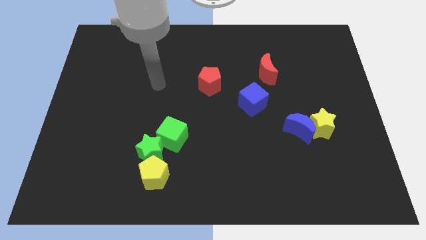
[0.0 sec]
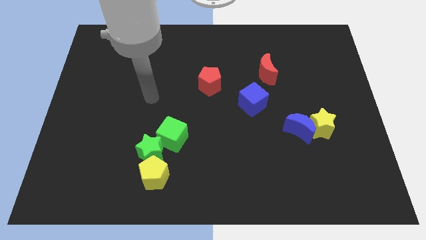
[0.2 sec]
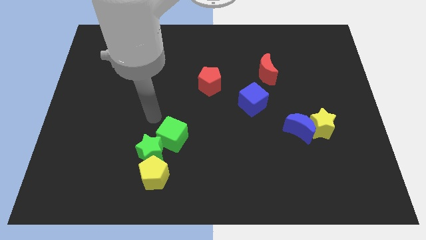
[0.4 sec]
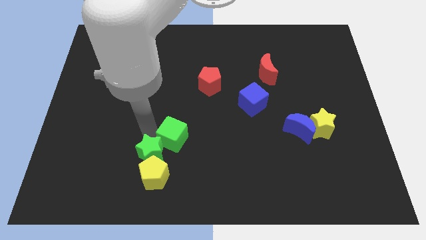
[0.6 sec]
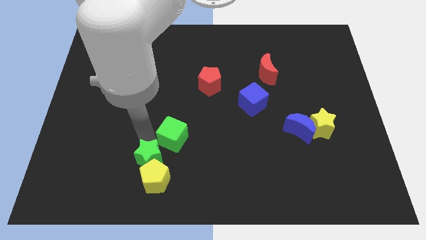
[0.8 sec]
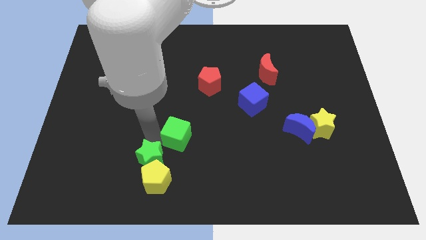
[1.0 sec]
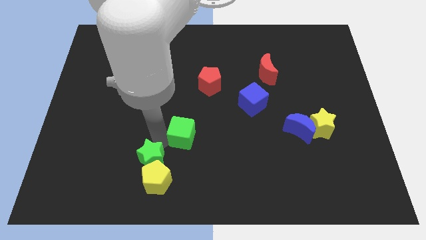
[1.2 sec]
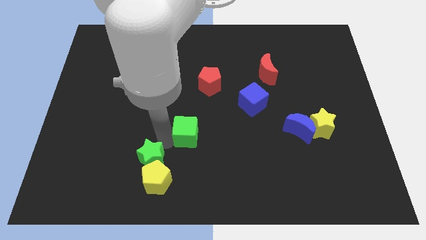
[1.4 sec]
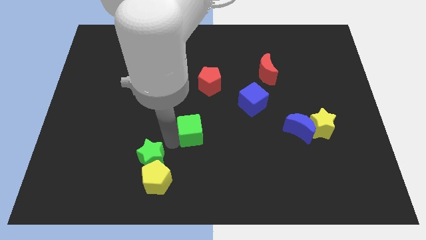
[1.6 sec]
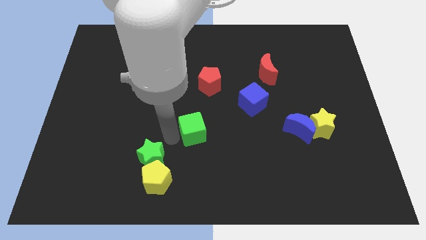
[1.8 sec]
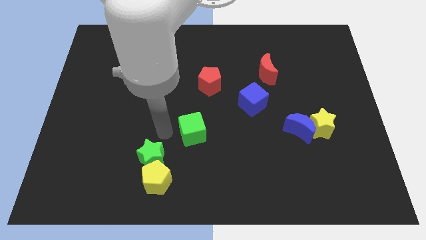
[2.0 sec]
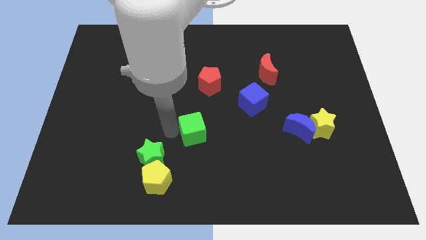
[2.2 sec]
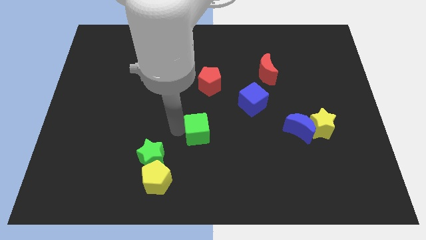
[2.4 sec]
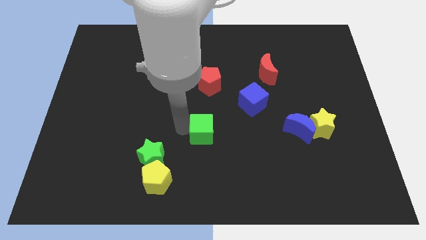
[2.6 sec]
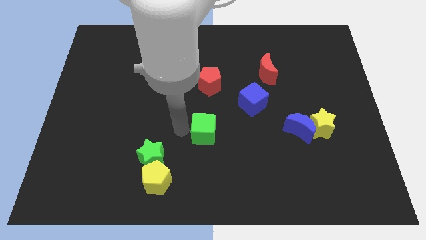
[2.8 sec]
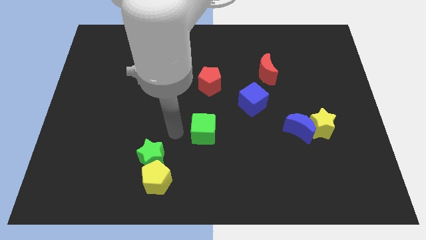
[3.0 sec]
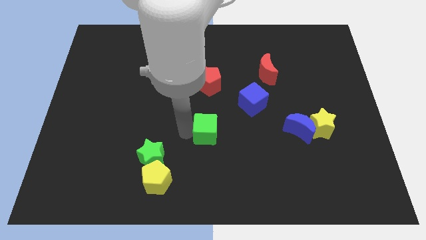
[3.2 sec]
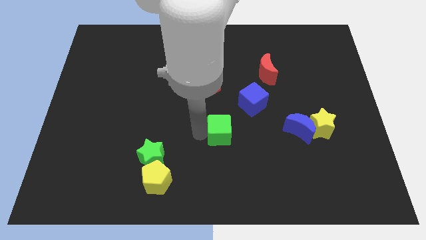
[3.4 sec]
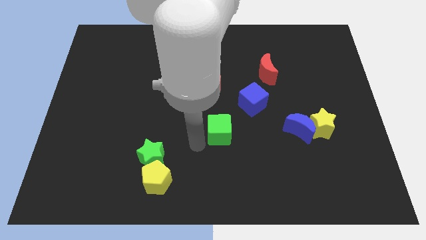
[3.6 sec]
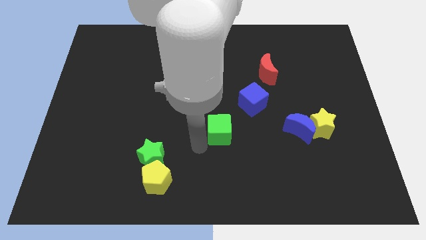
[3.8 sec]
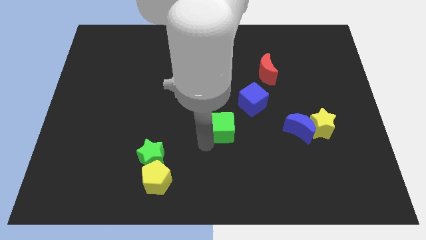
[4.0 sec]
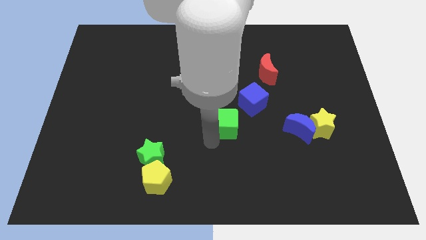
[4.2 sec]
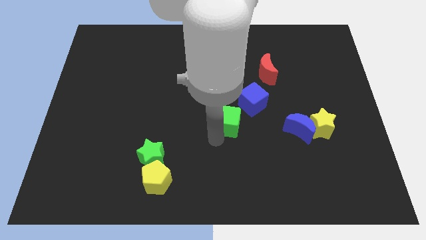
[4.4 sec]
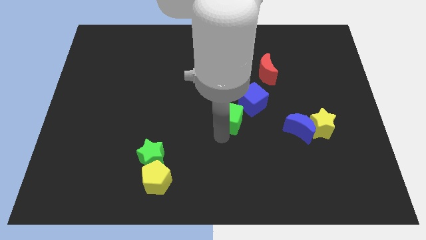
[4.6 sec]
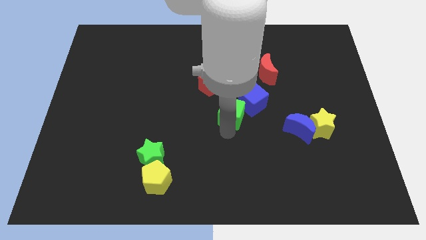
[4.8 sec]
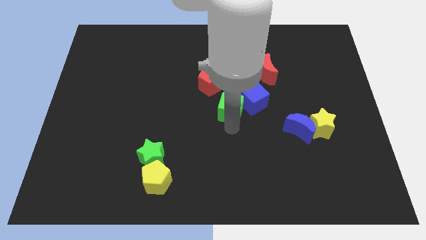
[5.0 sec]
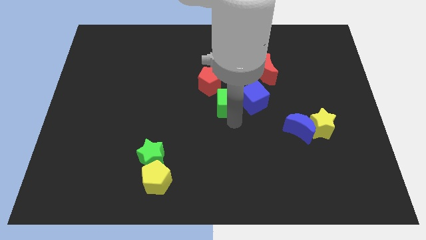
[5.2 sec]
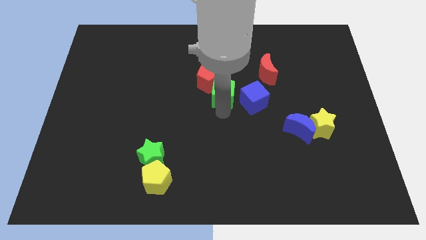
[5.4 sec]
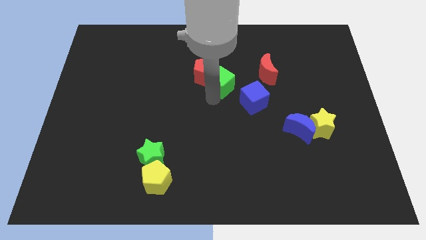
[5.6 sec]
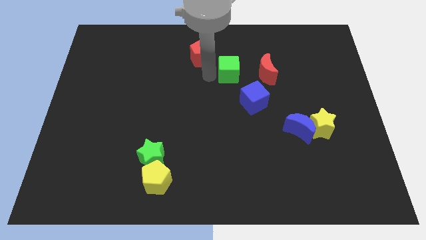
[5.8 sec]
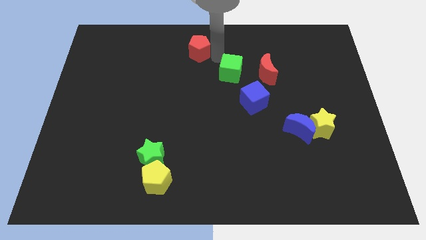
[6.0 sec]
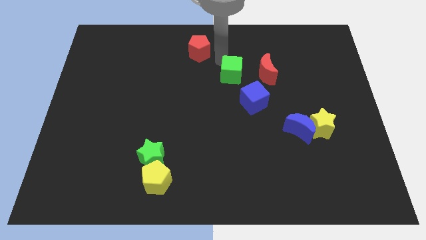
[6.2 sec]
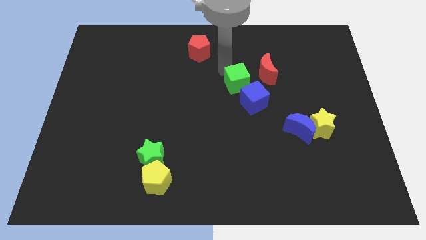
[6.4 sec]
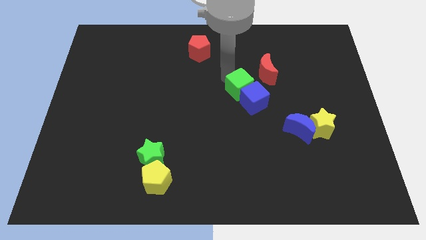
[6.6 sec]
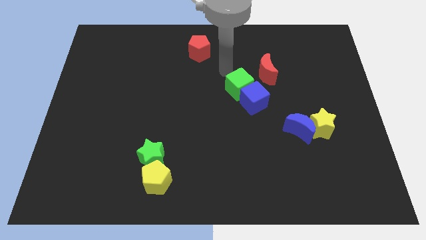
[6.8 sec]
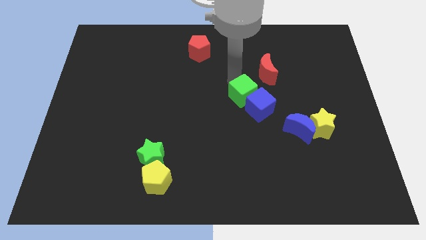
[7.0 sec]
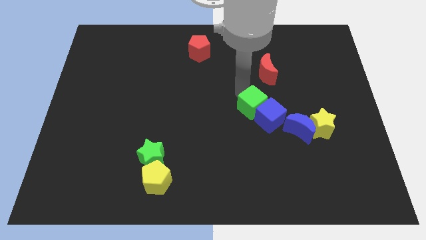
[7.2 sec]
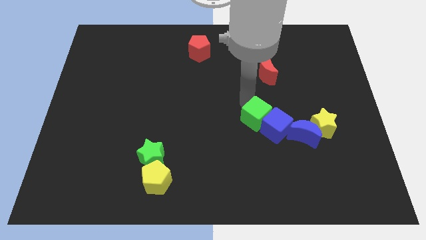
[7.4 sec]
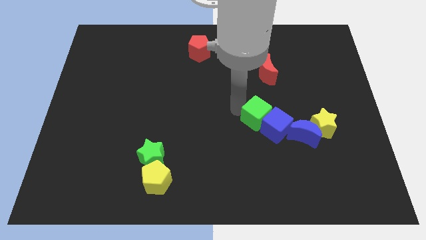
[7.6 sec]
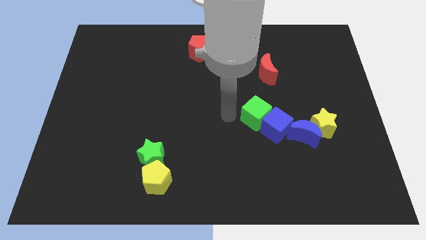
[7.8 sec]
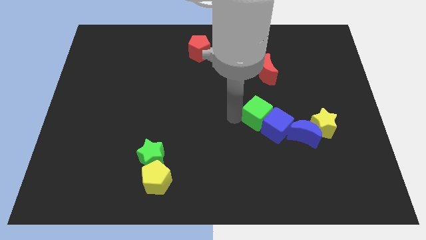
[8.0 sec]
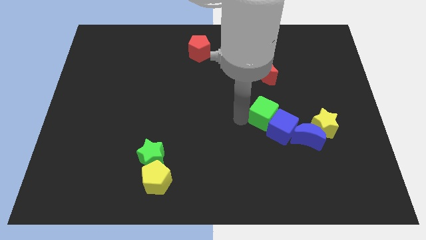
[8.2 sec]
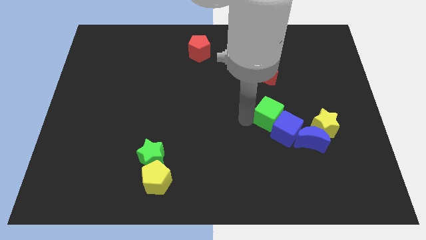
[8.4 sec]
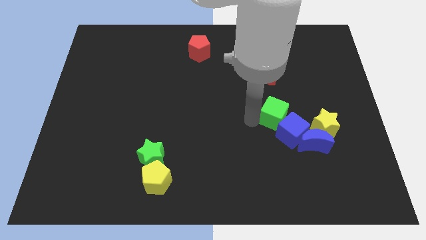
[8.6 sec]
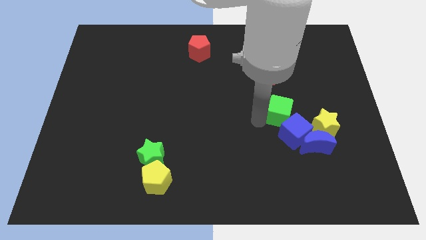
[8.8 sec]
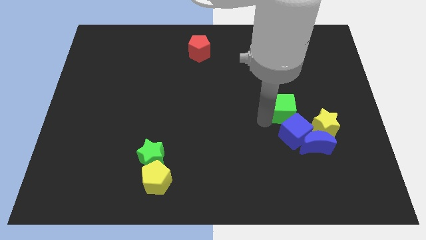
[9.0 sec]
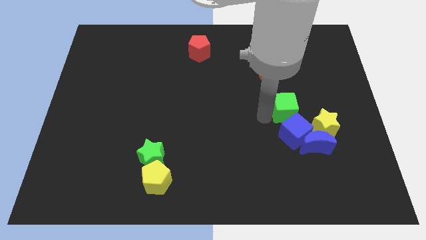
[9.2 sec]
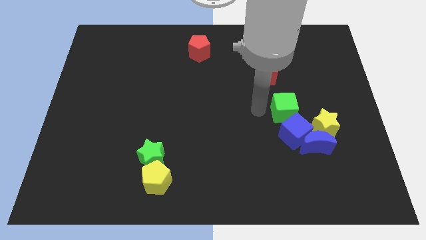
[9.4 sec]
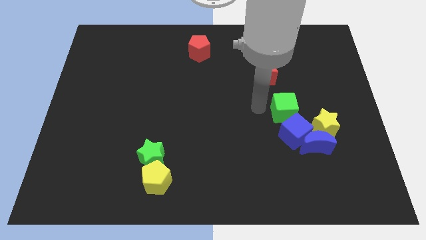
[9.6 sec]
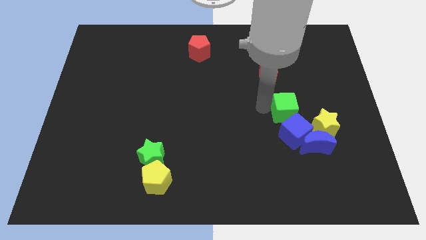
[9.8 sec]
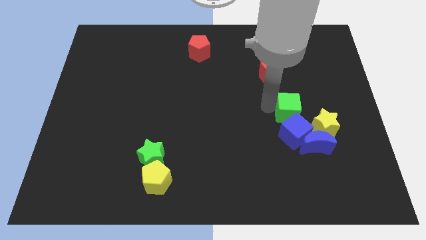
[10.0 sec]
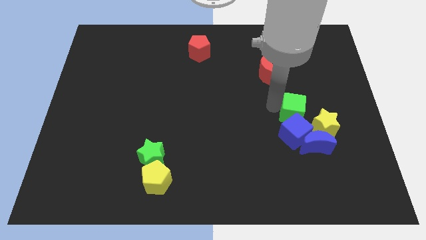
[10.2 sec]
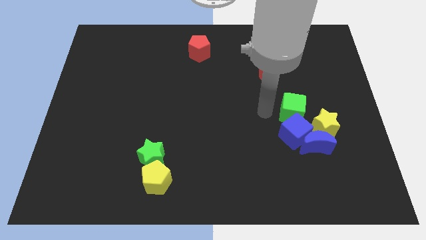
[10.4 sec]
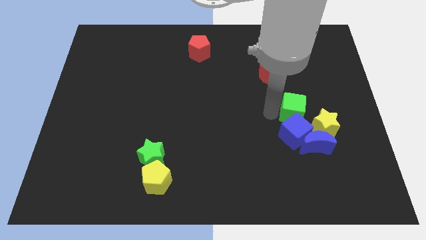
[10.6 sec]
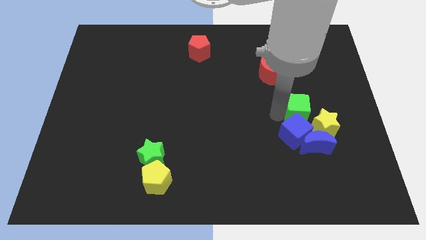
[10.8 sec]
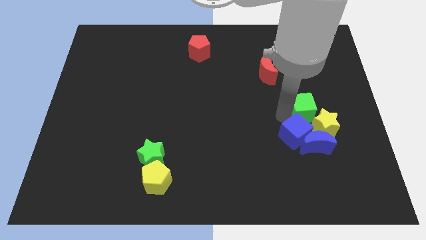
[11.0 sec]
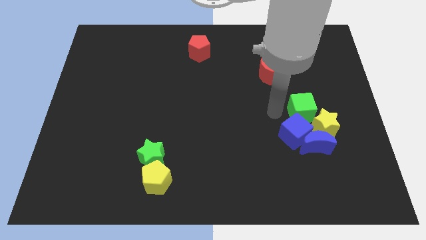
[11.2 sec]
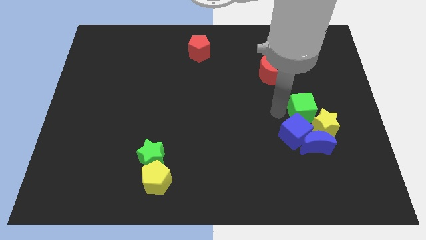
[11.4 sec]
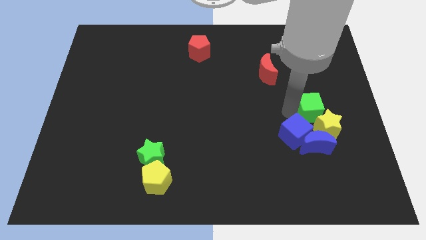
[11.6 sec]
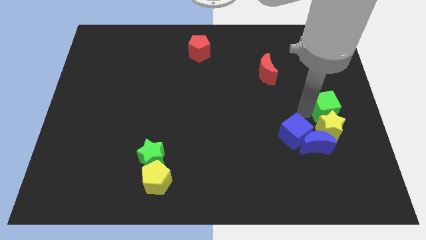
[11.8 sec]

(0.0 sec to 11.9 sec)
push the green cube to the top right of the blue moon

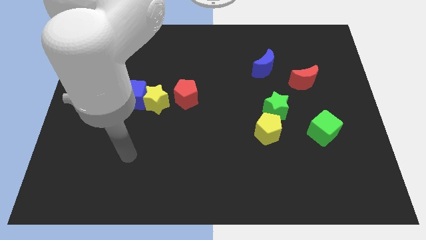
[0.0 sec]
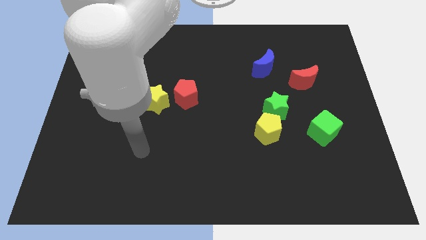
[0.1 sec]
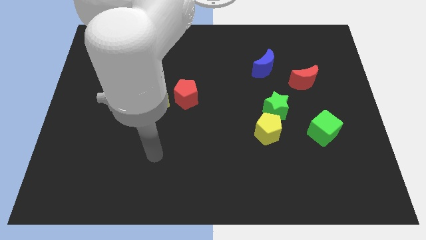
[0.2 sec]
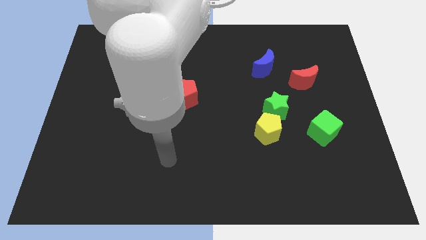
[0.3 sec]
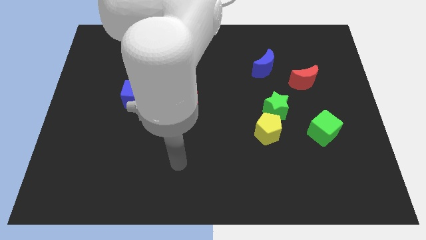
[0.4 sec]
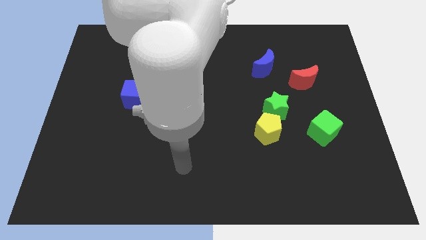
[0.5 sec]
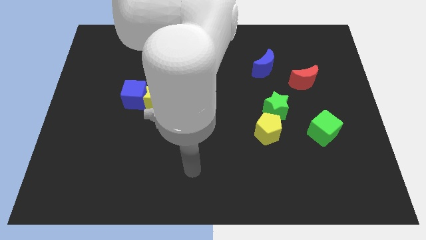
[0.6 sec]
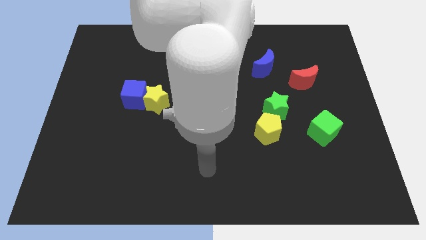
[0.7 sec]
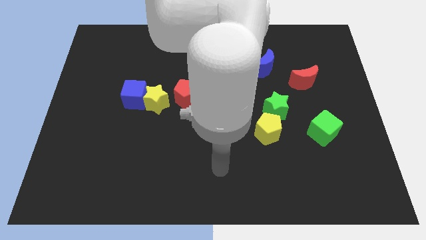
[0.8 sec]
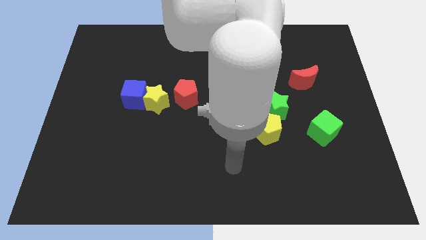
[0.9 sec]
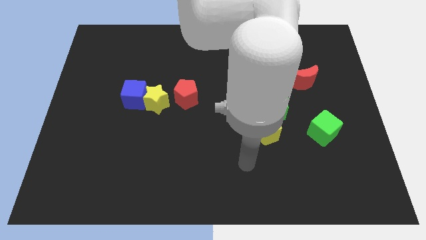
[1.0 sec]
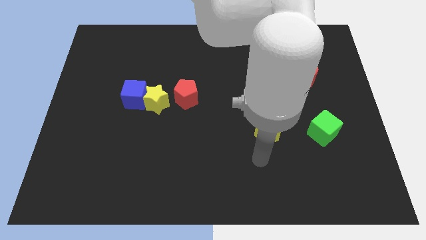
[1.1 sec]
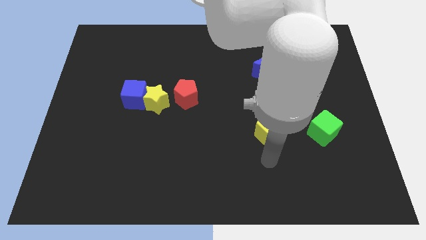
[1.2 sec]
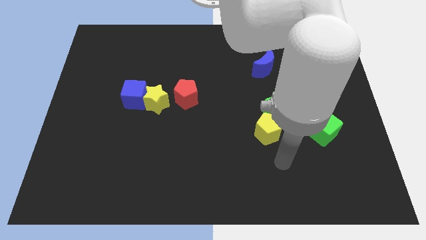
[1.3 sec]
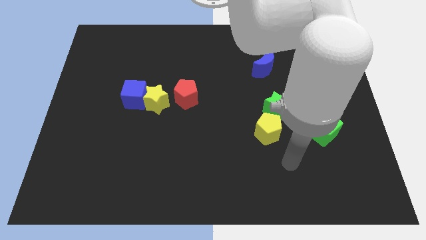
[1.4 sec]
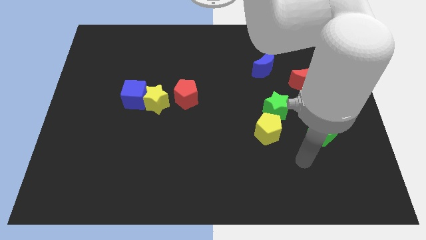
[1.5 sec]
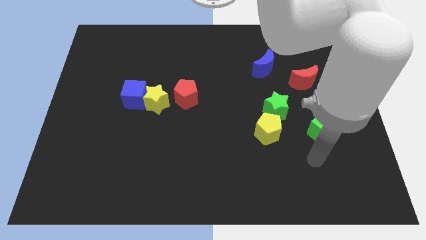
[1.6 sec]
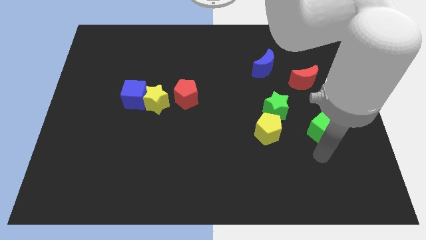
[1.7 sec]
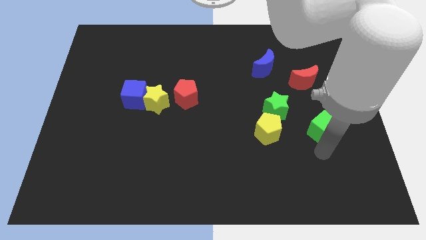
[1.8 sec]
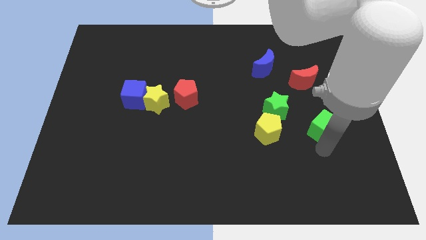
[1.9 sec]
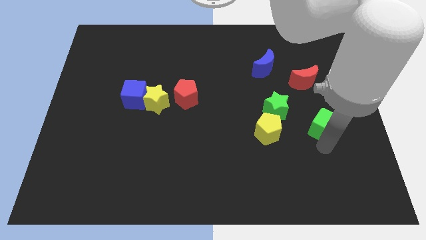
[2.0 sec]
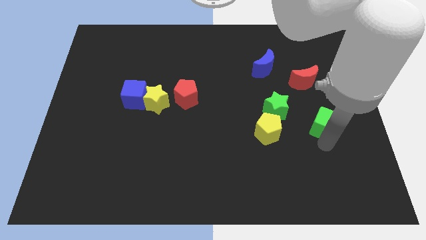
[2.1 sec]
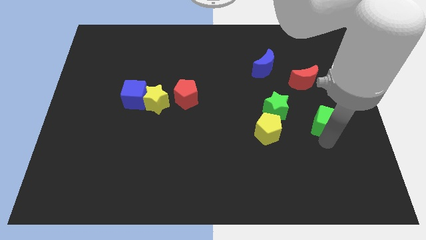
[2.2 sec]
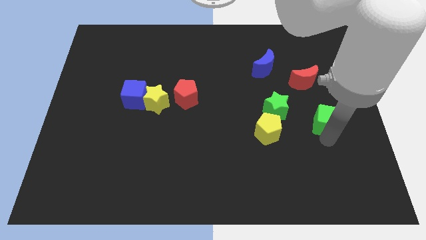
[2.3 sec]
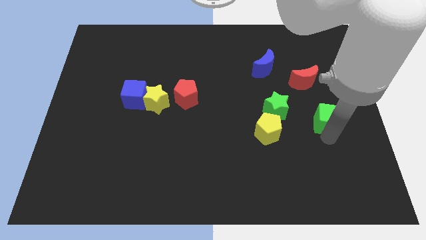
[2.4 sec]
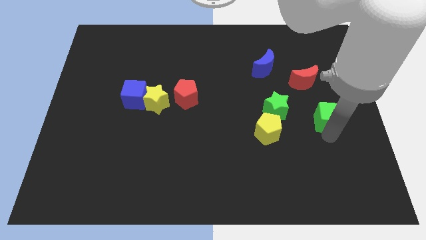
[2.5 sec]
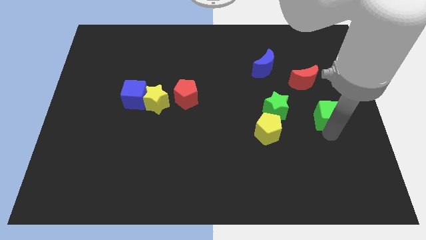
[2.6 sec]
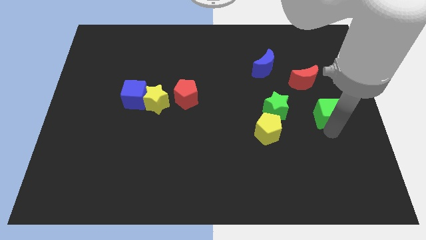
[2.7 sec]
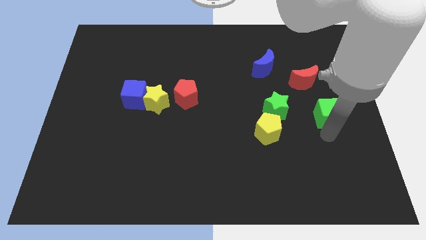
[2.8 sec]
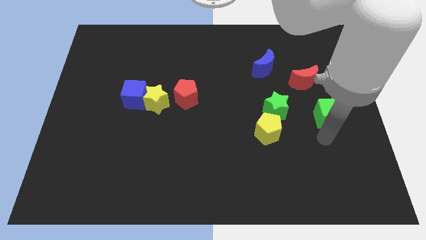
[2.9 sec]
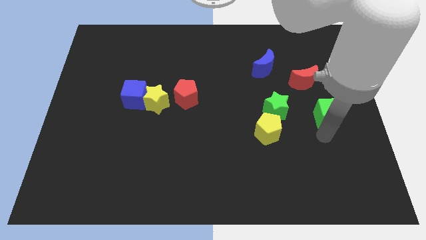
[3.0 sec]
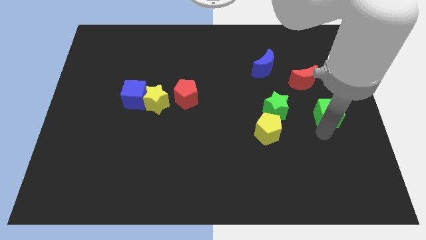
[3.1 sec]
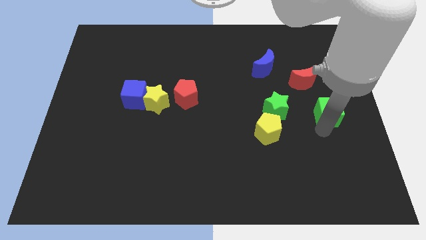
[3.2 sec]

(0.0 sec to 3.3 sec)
slide the green cube to the bottom right of the red moon
